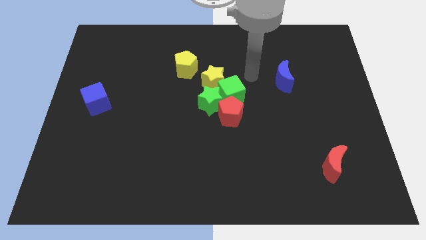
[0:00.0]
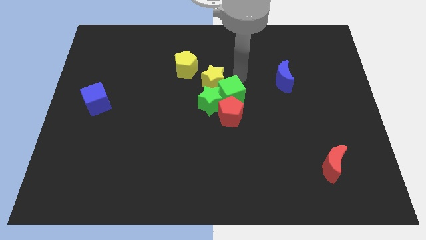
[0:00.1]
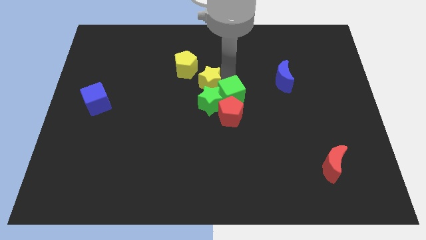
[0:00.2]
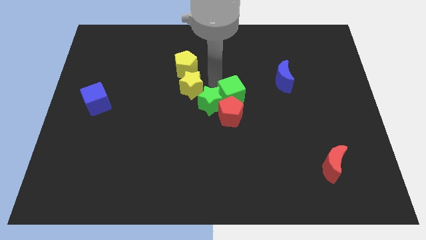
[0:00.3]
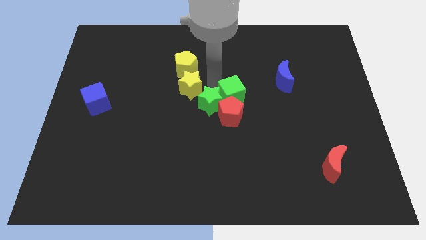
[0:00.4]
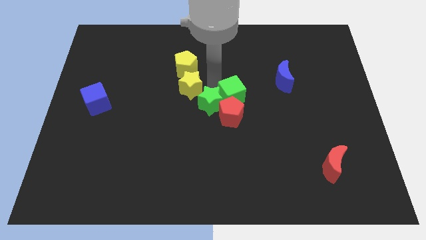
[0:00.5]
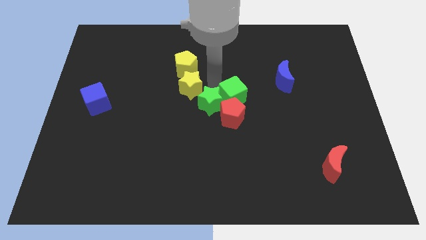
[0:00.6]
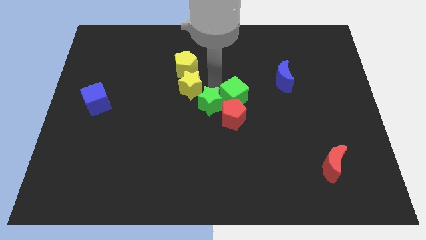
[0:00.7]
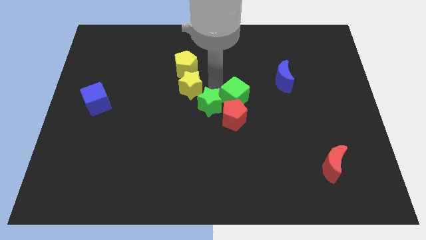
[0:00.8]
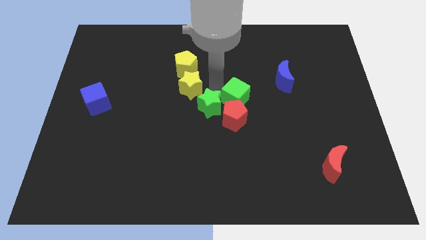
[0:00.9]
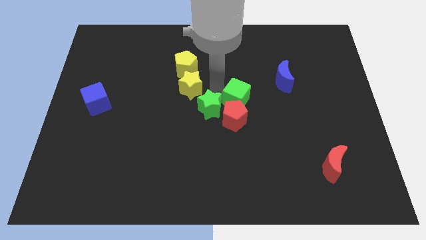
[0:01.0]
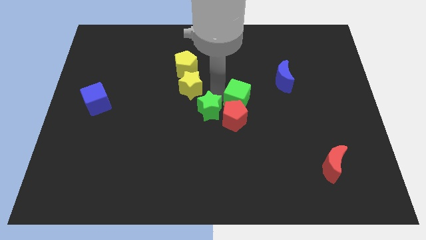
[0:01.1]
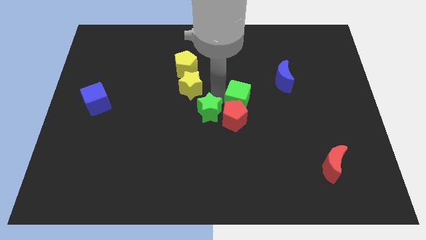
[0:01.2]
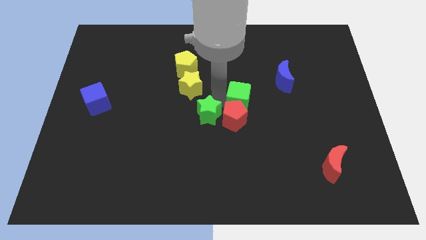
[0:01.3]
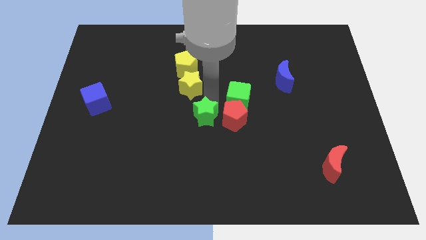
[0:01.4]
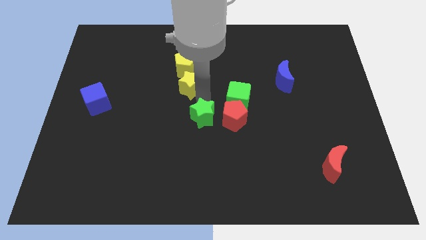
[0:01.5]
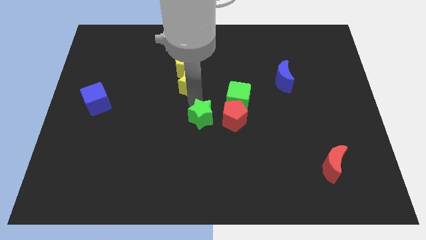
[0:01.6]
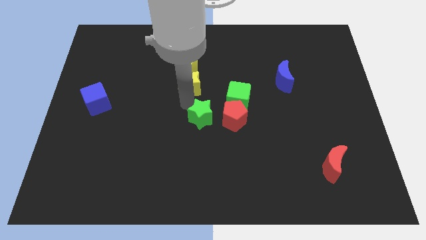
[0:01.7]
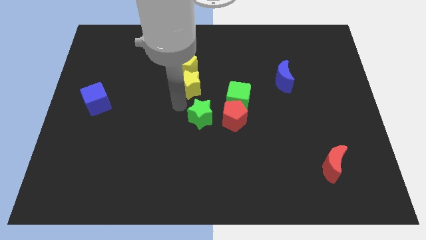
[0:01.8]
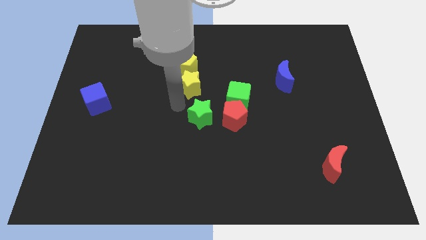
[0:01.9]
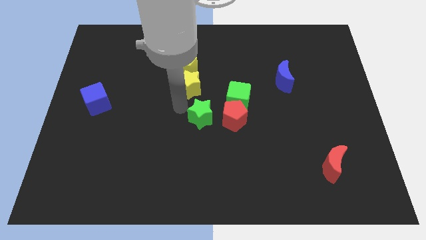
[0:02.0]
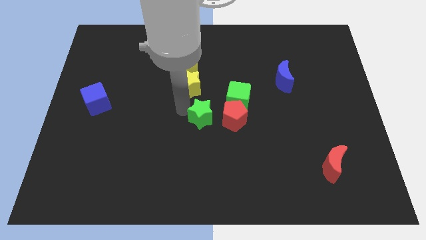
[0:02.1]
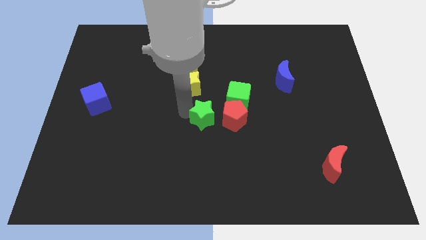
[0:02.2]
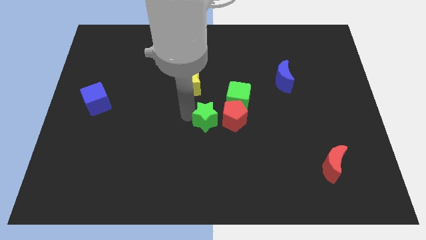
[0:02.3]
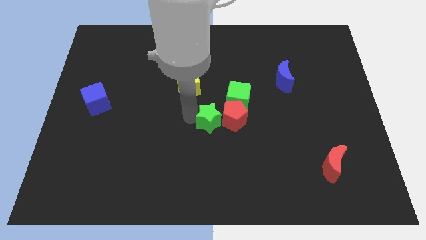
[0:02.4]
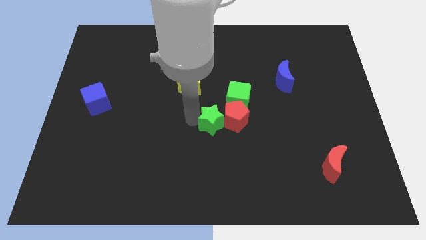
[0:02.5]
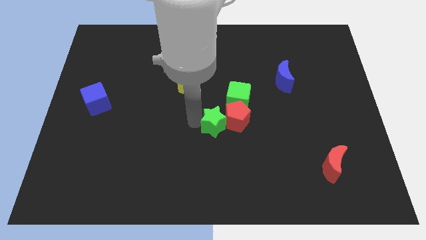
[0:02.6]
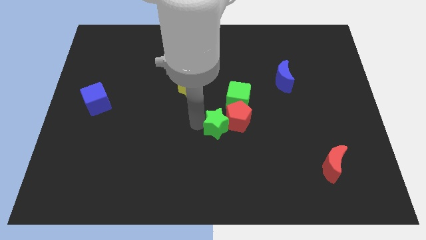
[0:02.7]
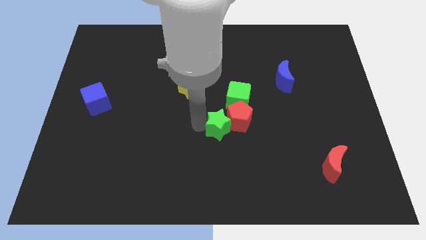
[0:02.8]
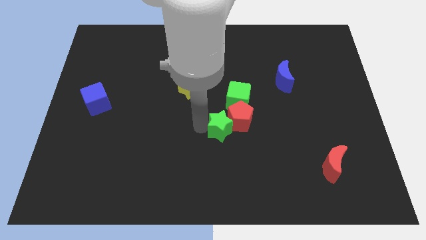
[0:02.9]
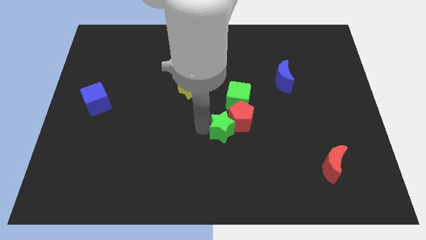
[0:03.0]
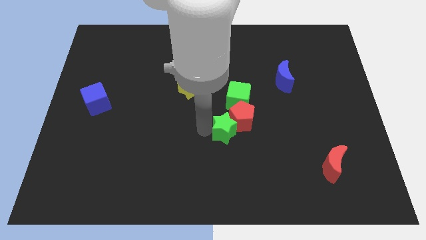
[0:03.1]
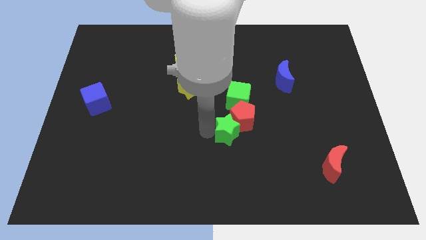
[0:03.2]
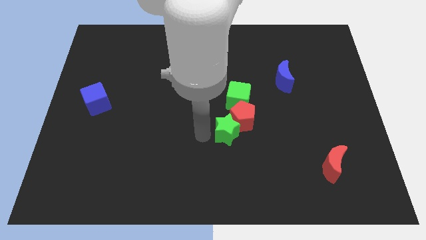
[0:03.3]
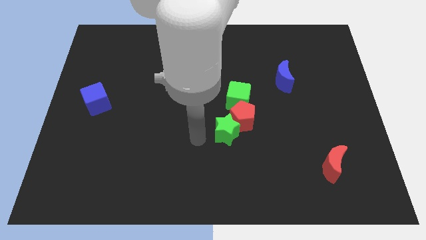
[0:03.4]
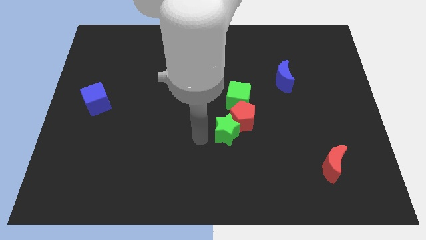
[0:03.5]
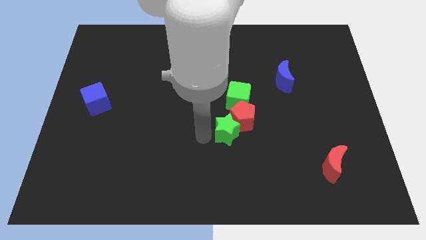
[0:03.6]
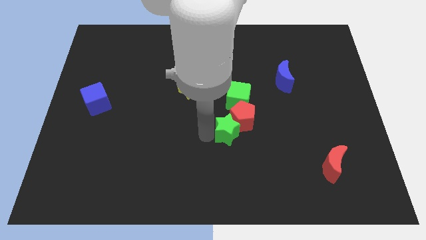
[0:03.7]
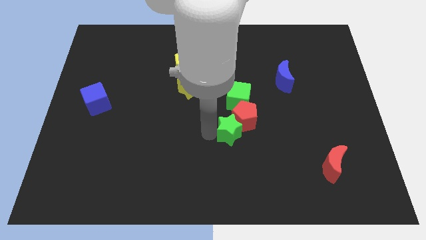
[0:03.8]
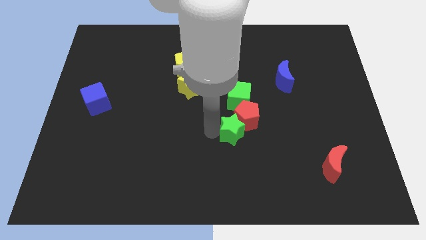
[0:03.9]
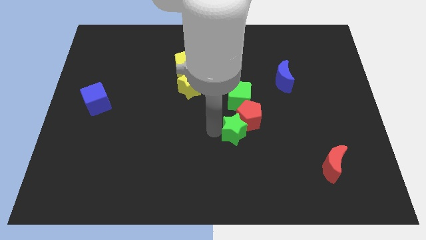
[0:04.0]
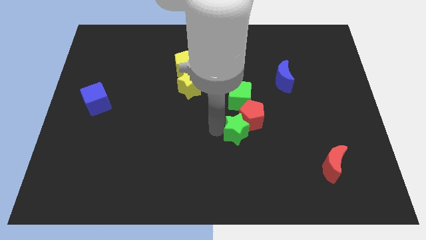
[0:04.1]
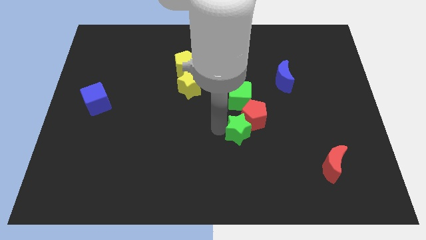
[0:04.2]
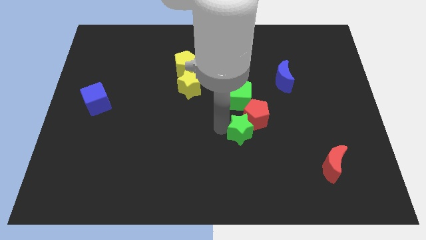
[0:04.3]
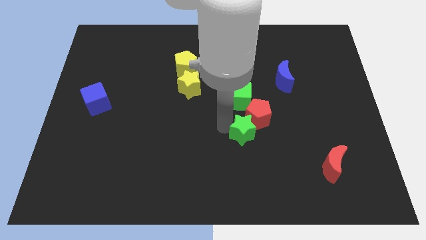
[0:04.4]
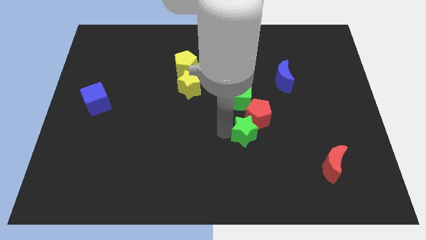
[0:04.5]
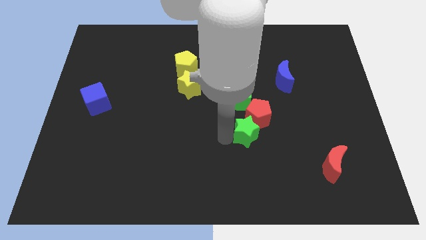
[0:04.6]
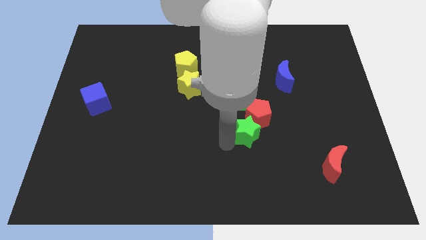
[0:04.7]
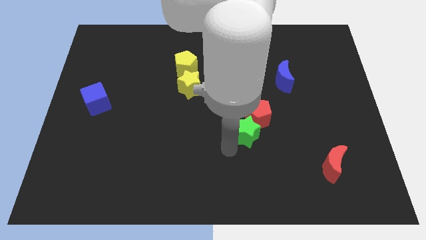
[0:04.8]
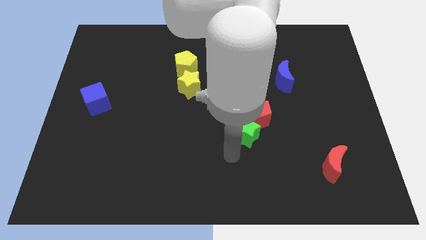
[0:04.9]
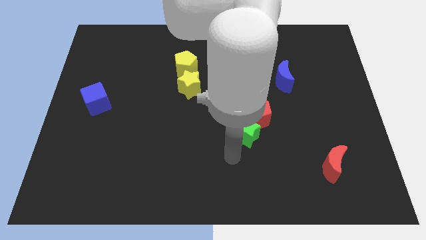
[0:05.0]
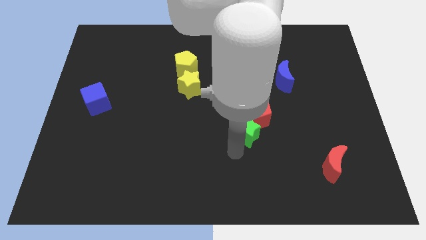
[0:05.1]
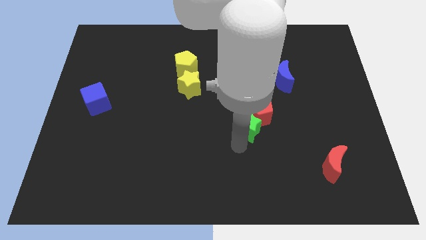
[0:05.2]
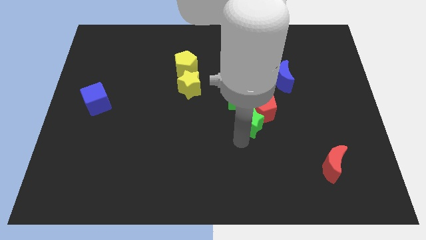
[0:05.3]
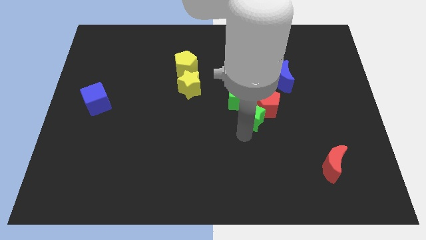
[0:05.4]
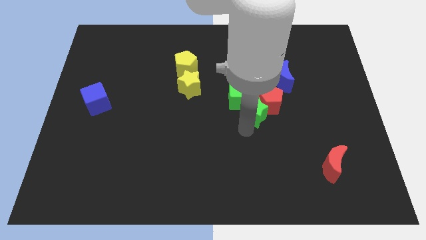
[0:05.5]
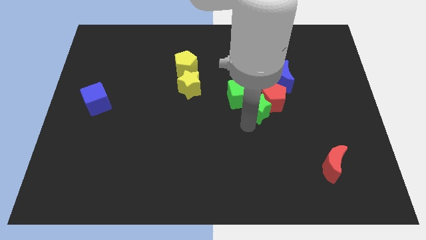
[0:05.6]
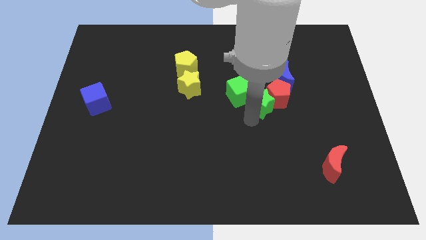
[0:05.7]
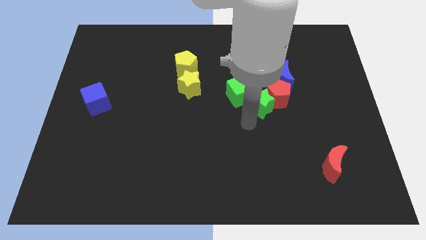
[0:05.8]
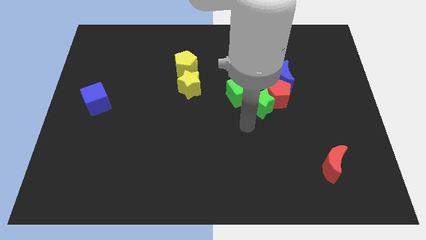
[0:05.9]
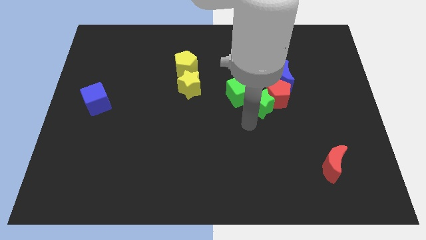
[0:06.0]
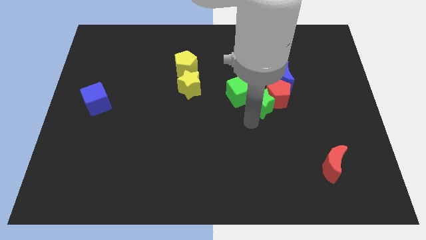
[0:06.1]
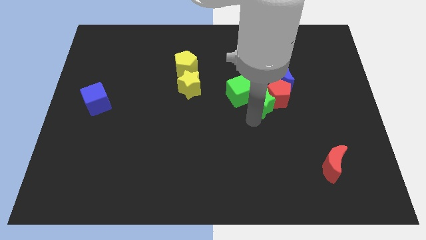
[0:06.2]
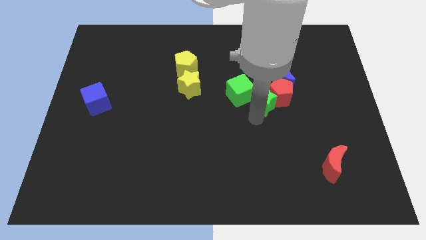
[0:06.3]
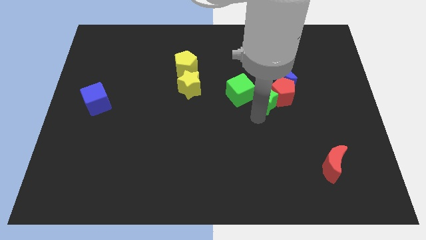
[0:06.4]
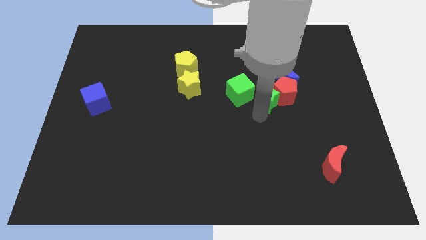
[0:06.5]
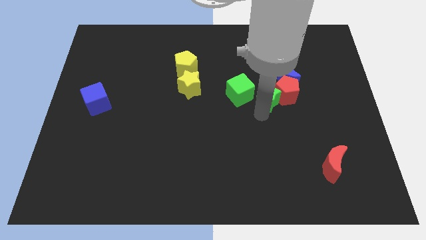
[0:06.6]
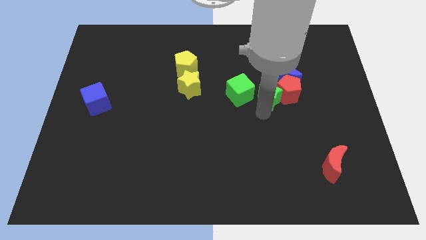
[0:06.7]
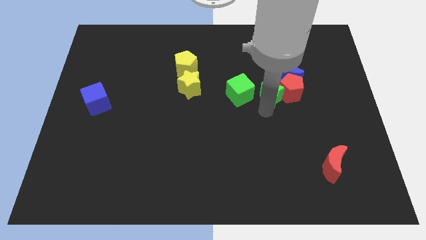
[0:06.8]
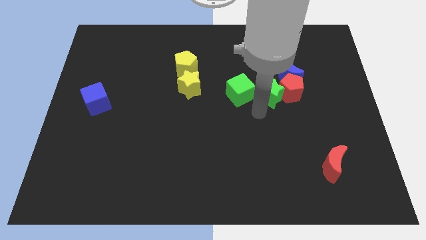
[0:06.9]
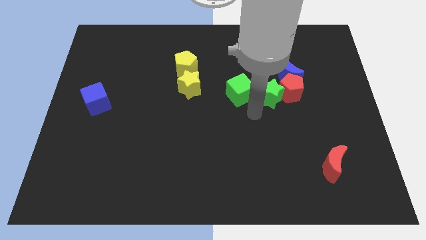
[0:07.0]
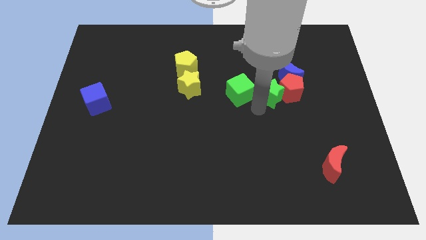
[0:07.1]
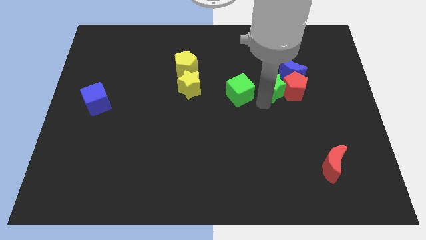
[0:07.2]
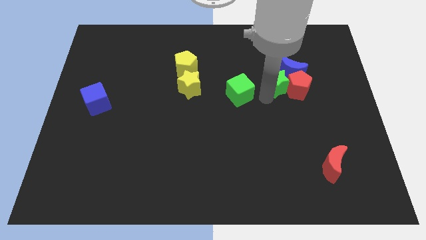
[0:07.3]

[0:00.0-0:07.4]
move the green star close to the blue moon
